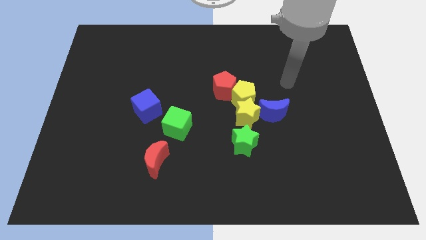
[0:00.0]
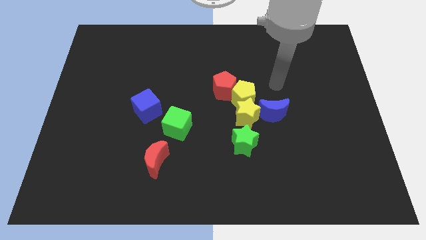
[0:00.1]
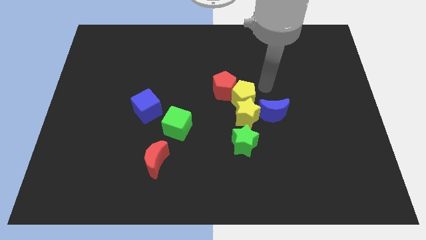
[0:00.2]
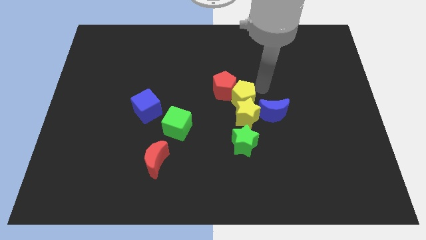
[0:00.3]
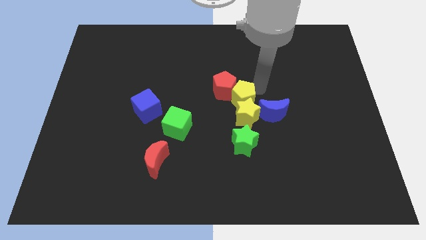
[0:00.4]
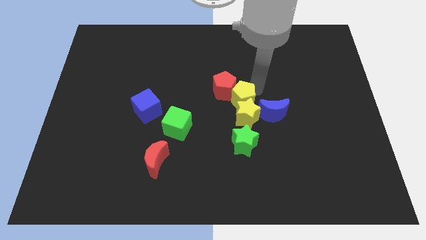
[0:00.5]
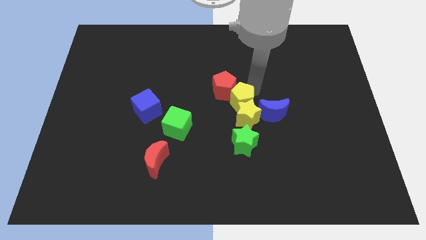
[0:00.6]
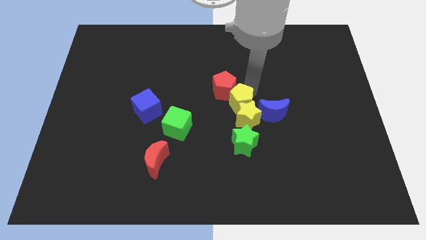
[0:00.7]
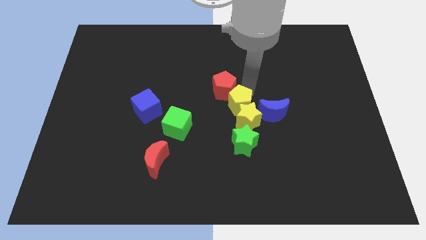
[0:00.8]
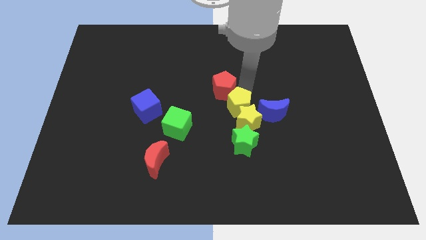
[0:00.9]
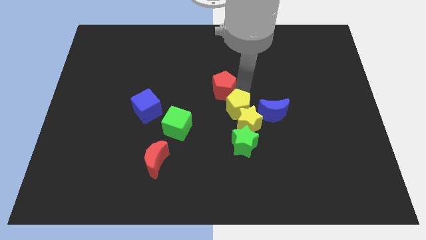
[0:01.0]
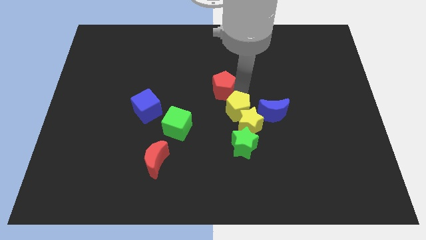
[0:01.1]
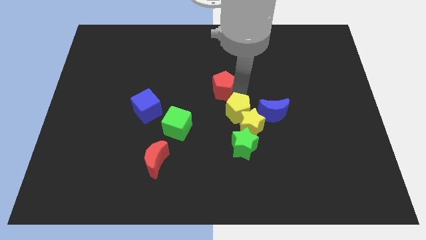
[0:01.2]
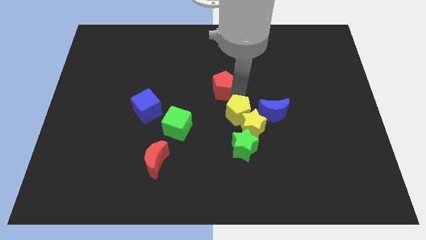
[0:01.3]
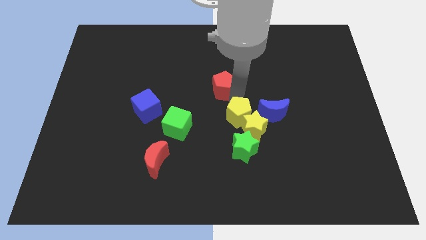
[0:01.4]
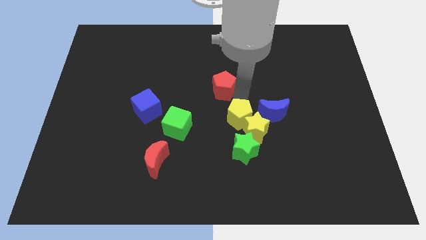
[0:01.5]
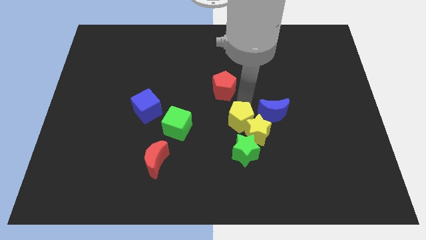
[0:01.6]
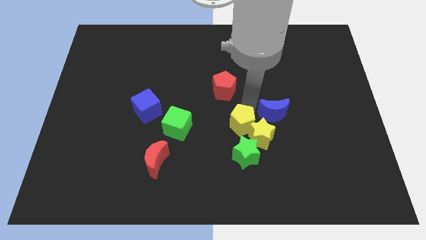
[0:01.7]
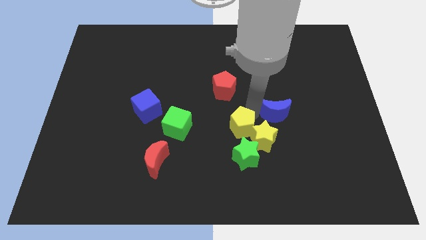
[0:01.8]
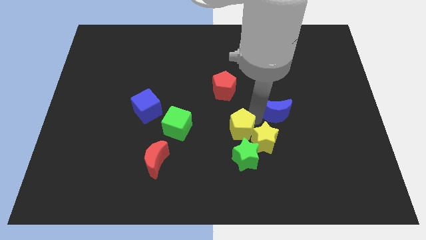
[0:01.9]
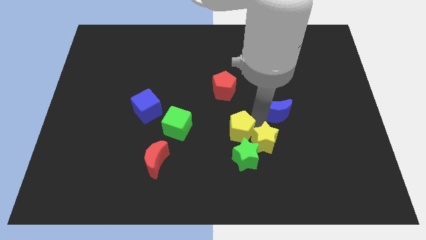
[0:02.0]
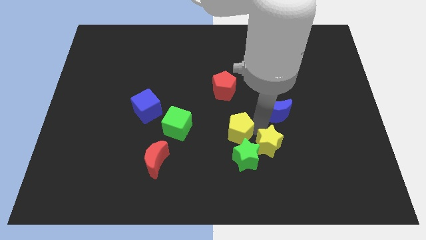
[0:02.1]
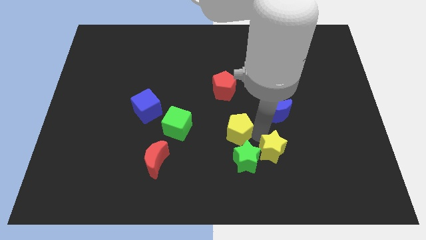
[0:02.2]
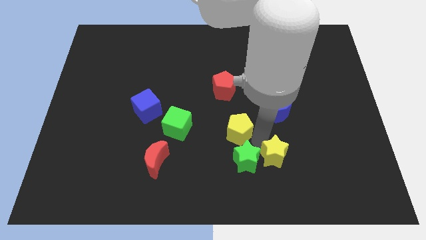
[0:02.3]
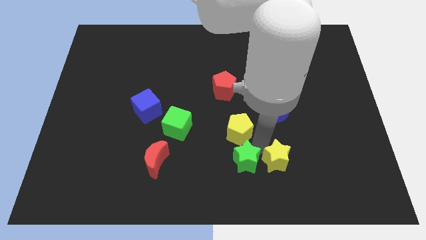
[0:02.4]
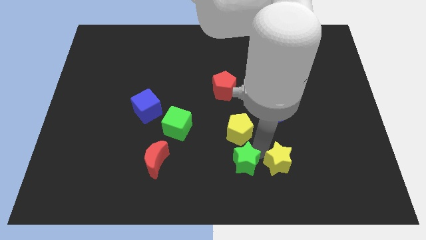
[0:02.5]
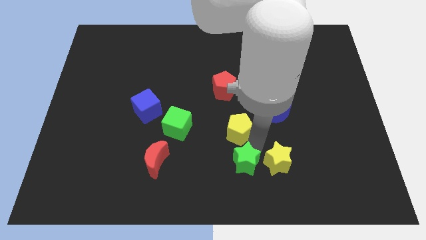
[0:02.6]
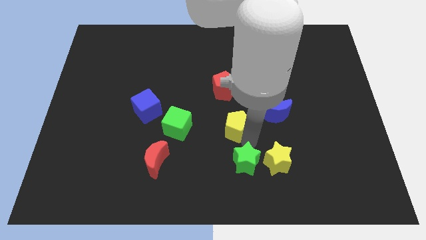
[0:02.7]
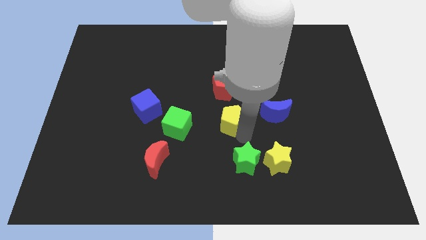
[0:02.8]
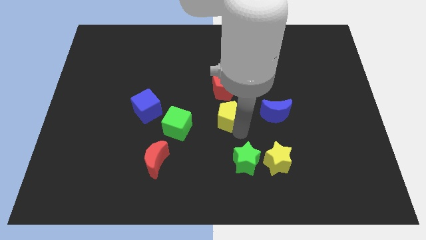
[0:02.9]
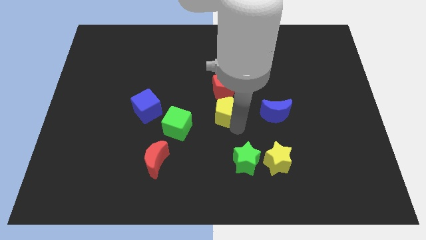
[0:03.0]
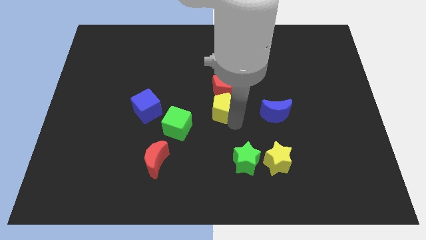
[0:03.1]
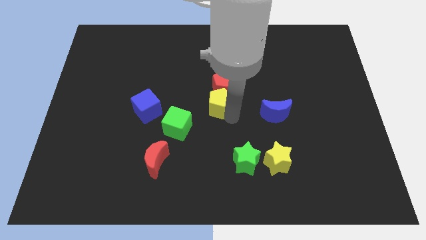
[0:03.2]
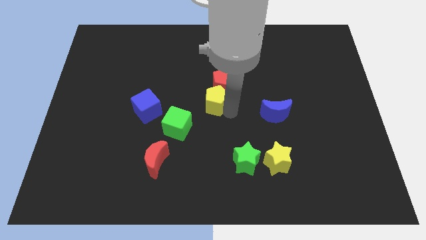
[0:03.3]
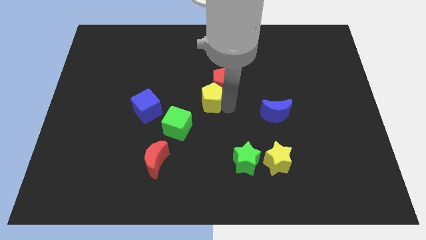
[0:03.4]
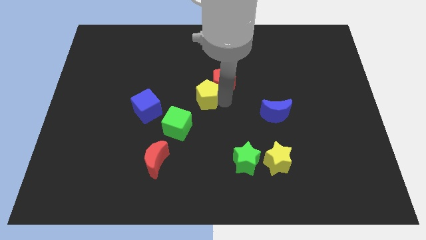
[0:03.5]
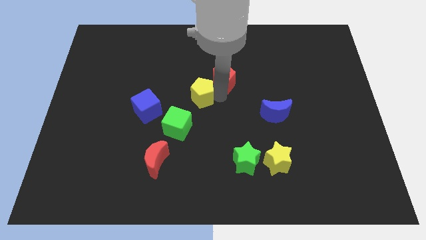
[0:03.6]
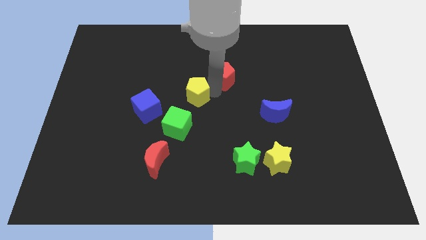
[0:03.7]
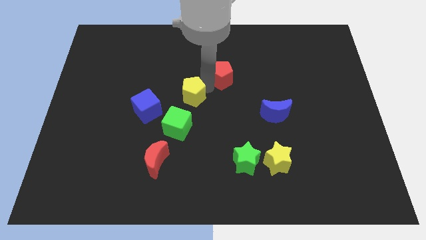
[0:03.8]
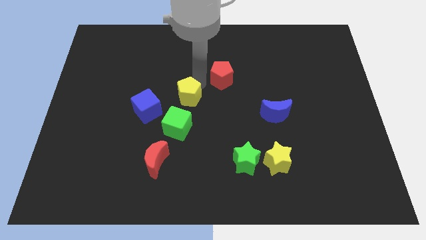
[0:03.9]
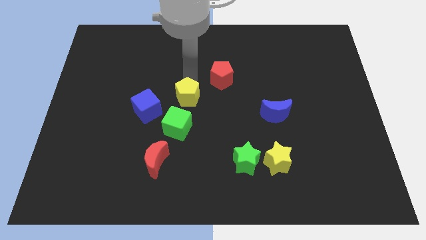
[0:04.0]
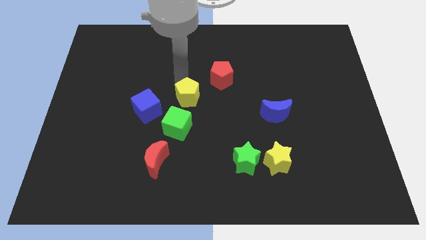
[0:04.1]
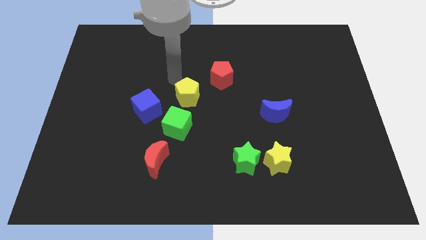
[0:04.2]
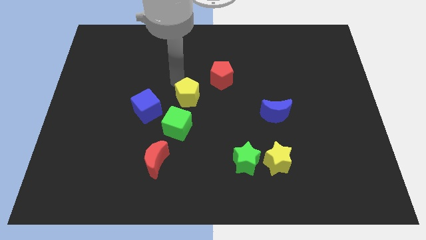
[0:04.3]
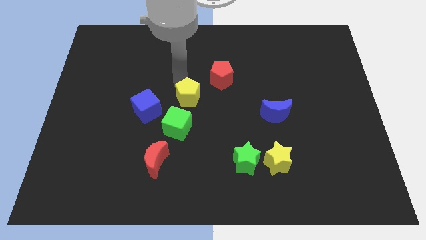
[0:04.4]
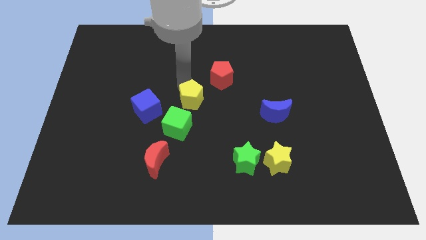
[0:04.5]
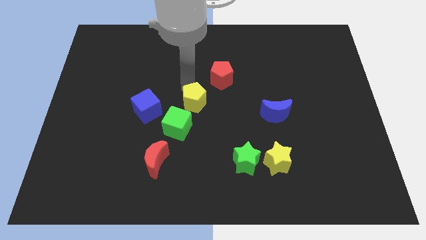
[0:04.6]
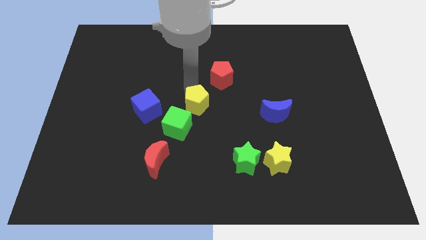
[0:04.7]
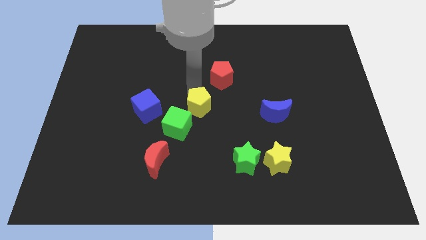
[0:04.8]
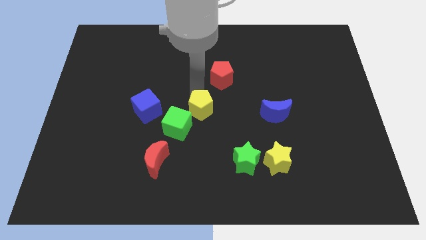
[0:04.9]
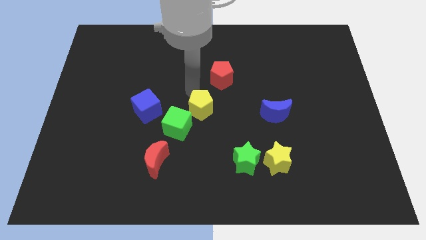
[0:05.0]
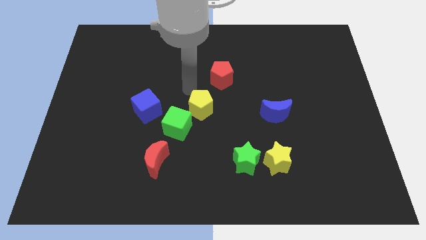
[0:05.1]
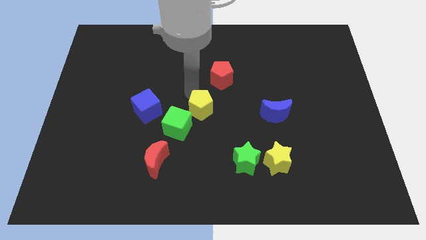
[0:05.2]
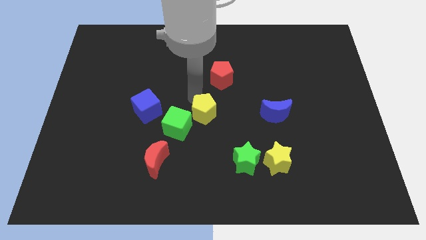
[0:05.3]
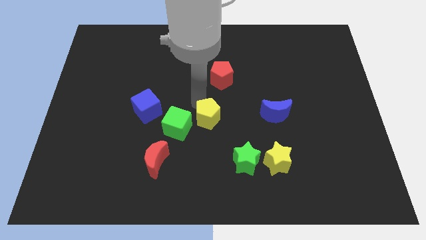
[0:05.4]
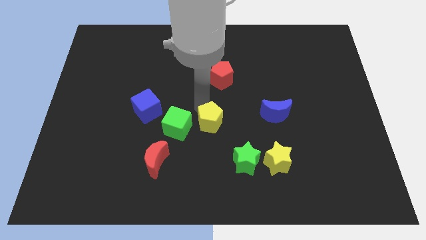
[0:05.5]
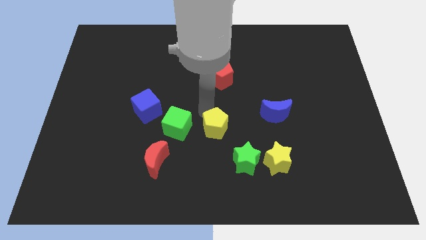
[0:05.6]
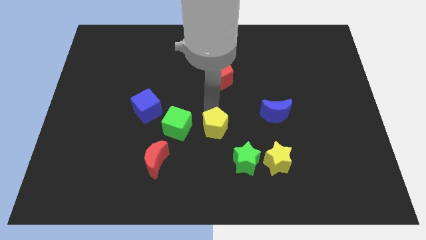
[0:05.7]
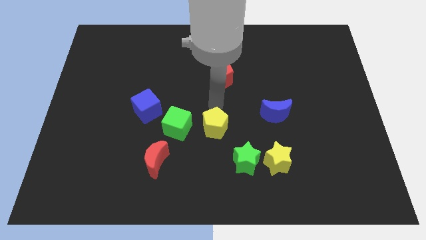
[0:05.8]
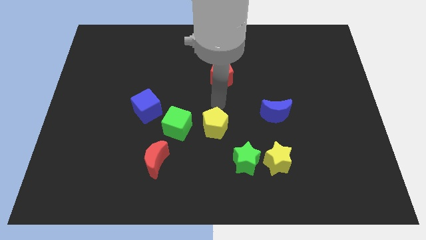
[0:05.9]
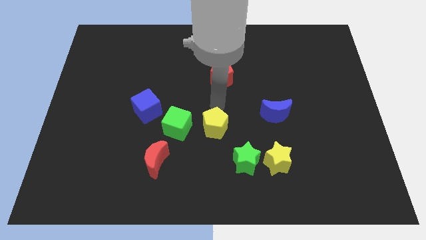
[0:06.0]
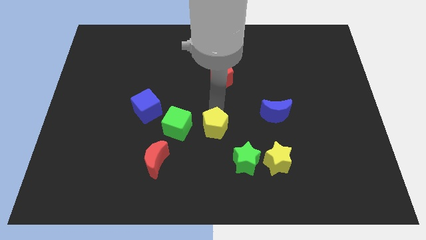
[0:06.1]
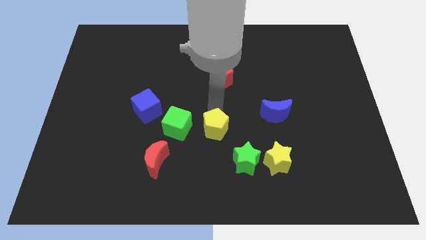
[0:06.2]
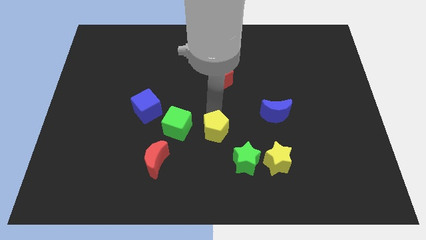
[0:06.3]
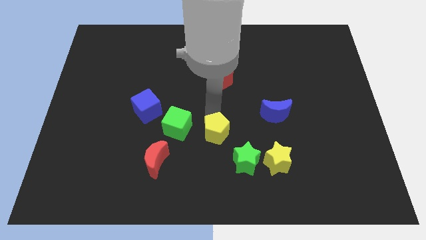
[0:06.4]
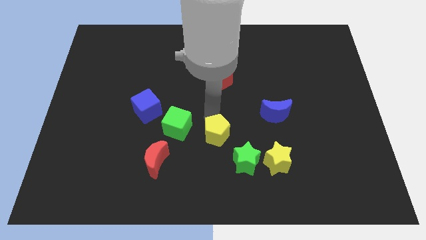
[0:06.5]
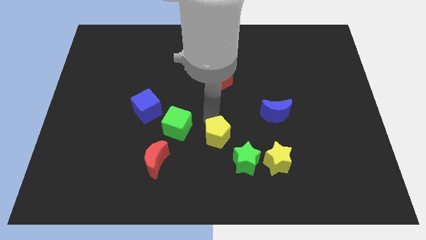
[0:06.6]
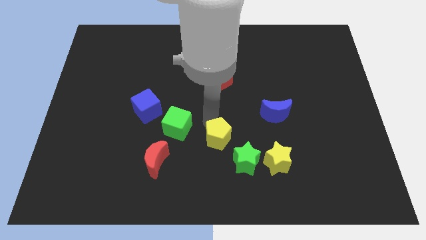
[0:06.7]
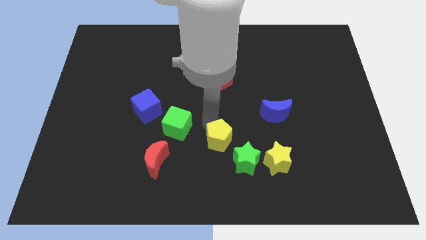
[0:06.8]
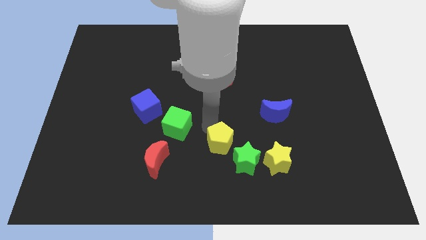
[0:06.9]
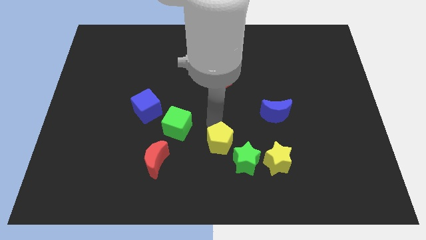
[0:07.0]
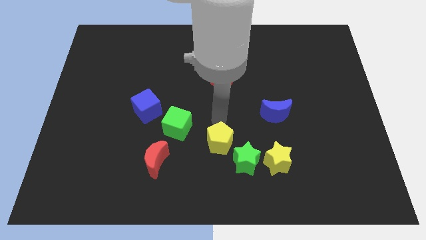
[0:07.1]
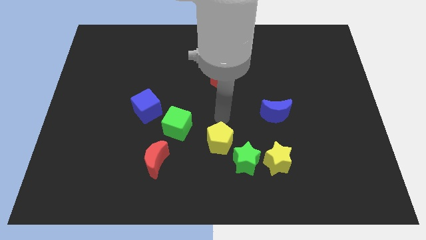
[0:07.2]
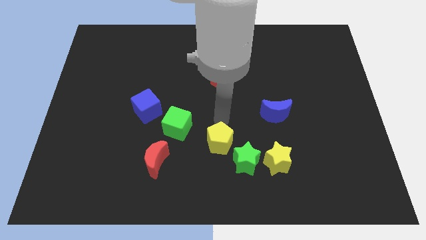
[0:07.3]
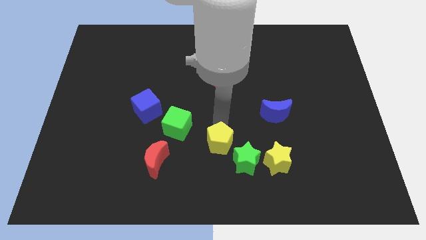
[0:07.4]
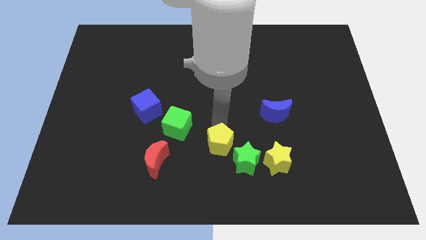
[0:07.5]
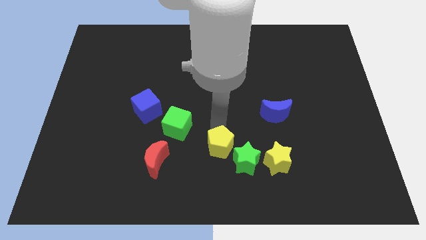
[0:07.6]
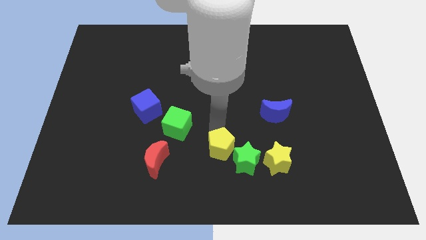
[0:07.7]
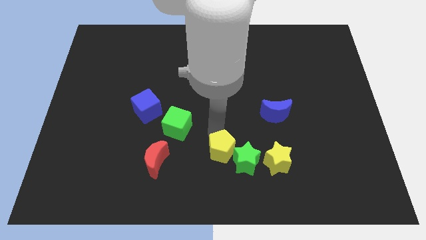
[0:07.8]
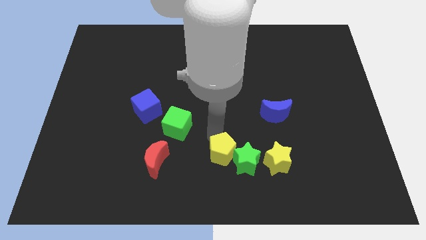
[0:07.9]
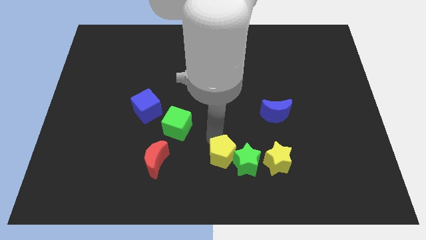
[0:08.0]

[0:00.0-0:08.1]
push the yellow pentagon to the bottom
